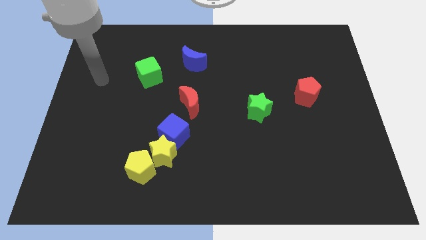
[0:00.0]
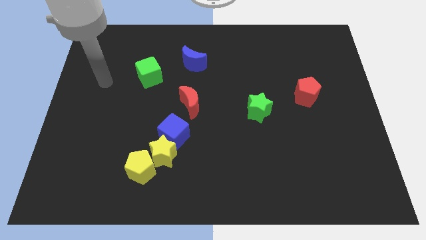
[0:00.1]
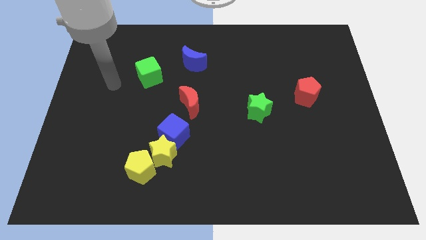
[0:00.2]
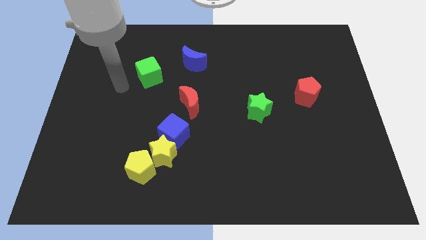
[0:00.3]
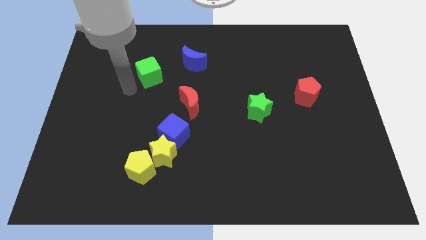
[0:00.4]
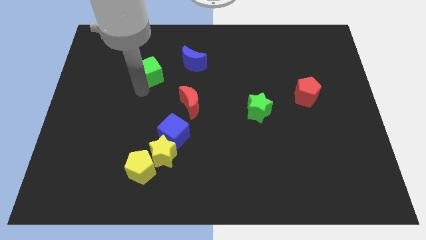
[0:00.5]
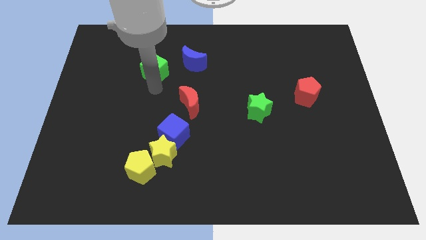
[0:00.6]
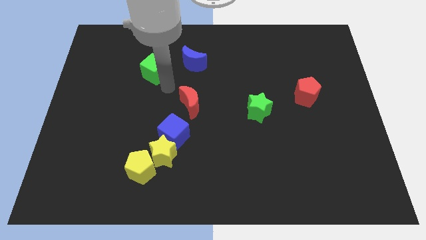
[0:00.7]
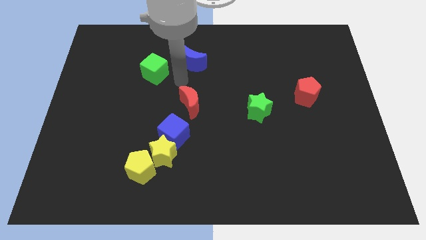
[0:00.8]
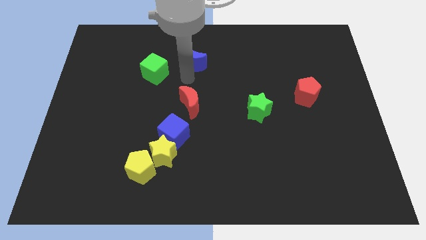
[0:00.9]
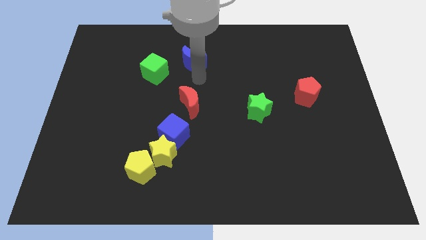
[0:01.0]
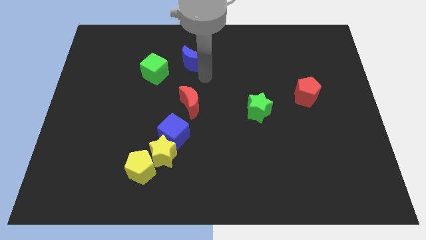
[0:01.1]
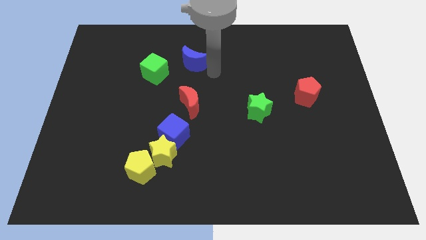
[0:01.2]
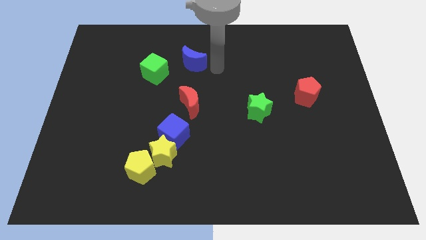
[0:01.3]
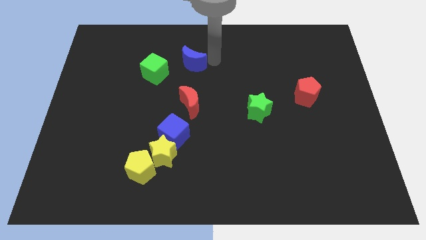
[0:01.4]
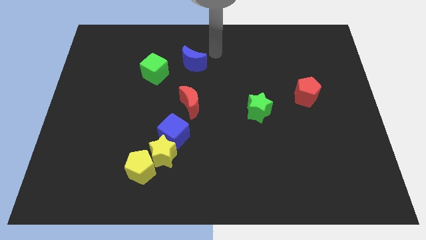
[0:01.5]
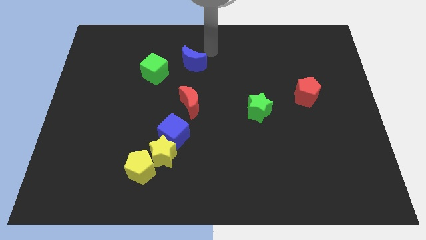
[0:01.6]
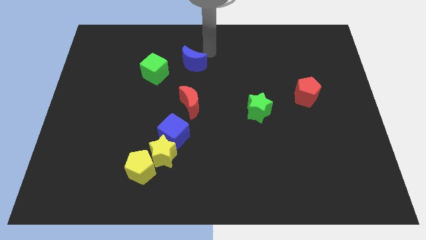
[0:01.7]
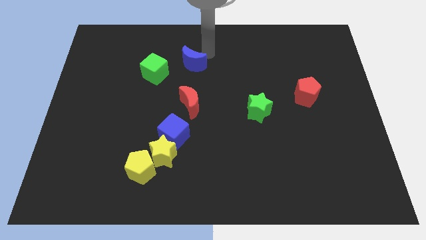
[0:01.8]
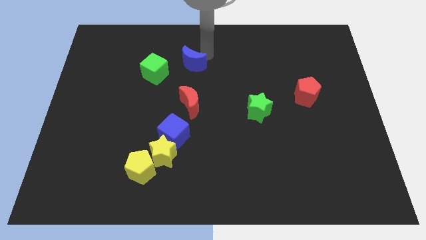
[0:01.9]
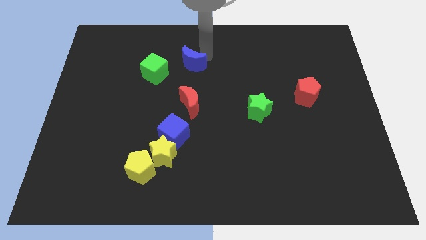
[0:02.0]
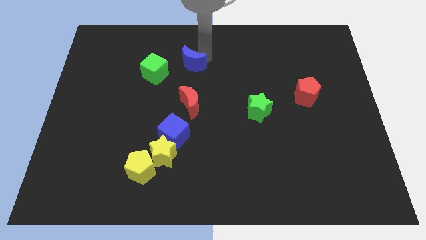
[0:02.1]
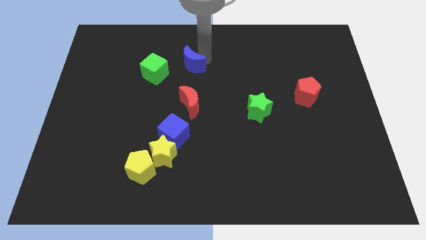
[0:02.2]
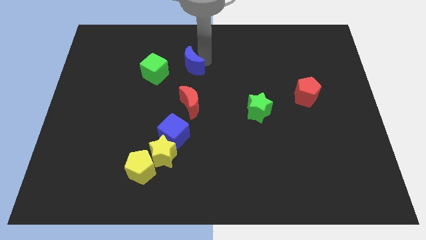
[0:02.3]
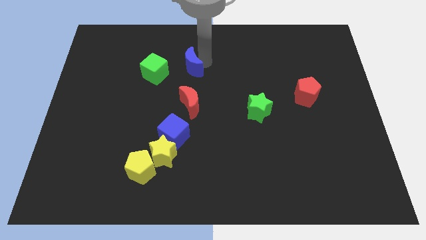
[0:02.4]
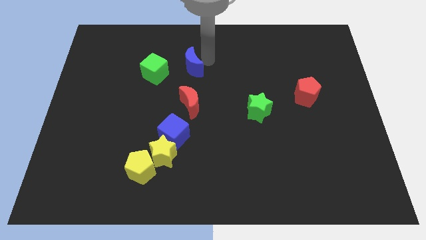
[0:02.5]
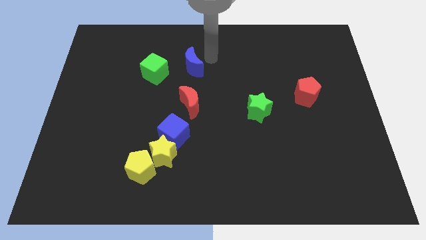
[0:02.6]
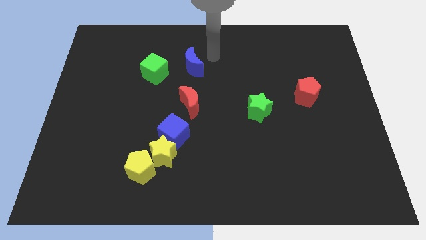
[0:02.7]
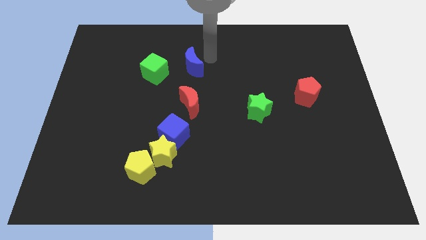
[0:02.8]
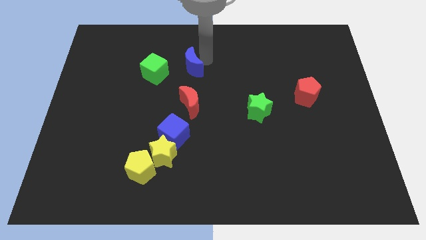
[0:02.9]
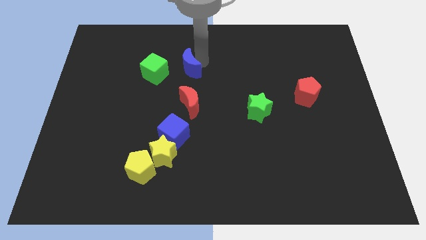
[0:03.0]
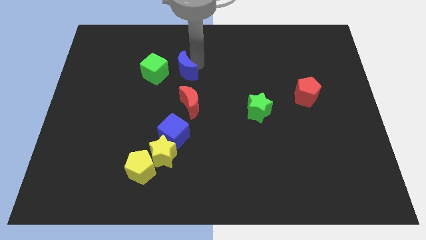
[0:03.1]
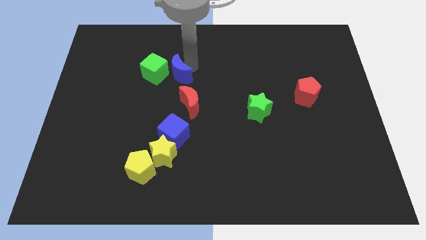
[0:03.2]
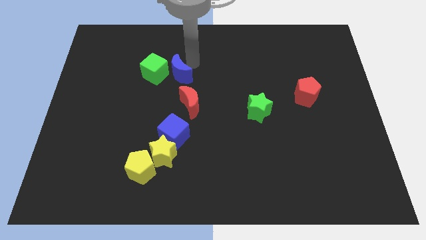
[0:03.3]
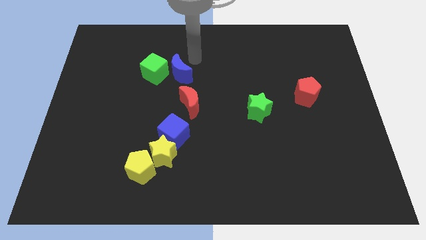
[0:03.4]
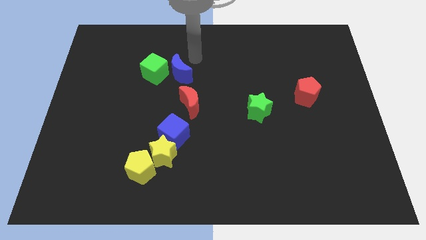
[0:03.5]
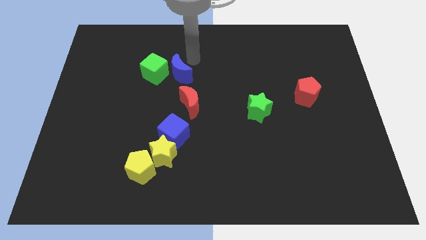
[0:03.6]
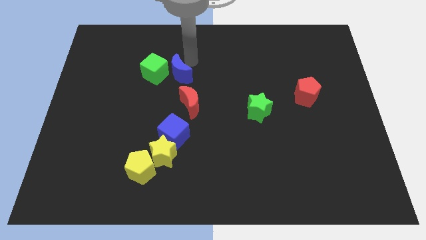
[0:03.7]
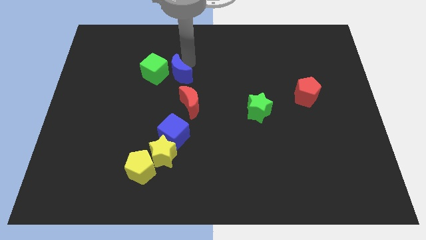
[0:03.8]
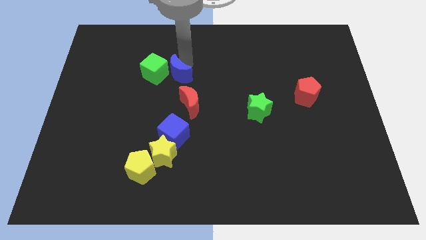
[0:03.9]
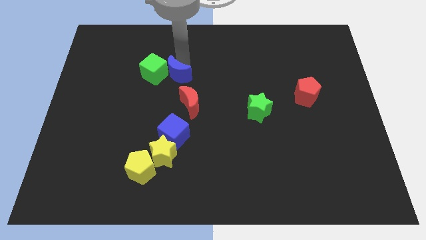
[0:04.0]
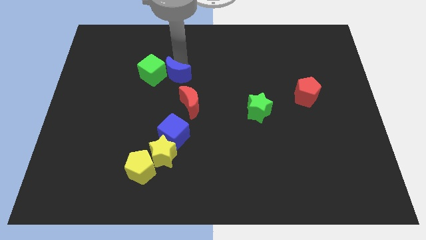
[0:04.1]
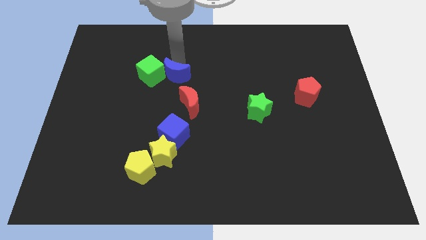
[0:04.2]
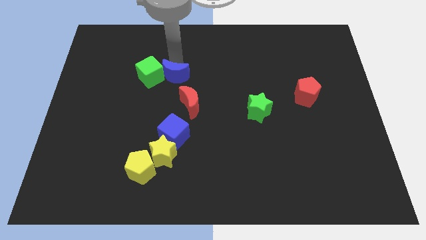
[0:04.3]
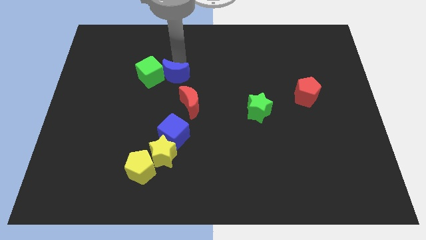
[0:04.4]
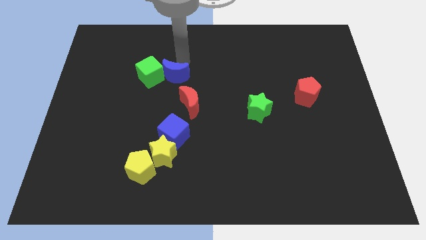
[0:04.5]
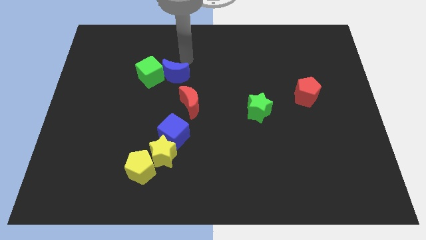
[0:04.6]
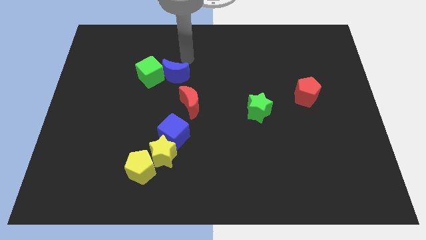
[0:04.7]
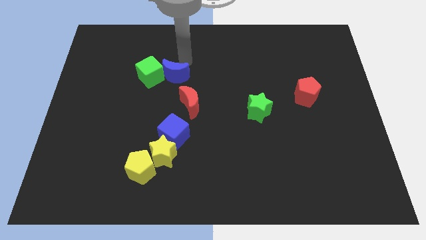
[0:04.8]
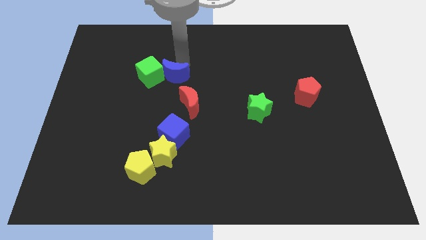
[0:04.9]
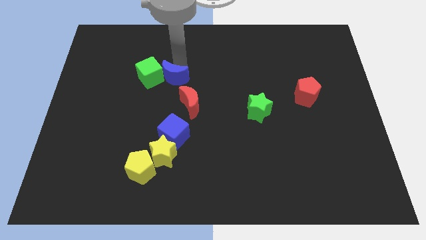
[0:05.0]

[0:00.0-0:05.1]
move the blue moon diagonally downwards and left slightly

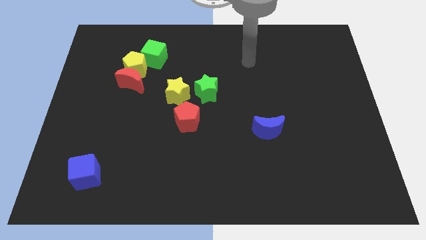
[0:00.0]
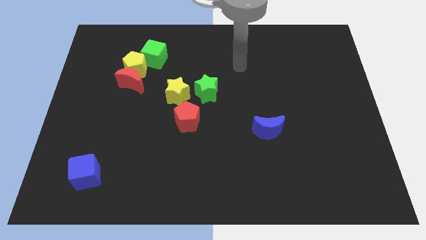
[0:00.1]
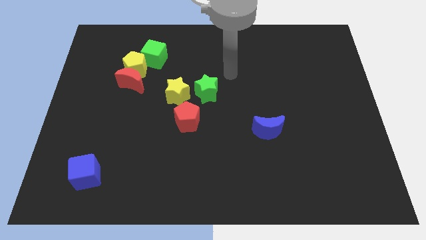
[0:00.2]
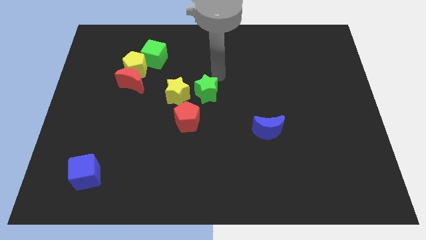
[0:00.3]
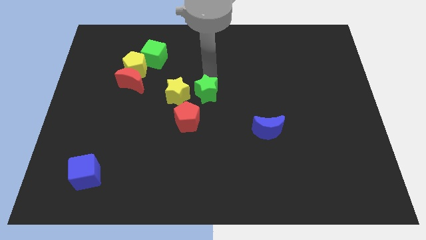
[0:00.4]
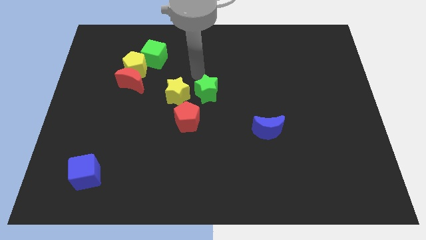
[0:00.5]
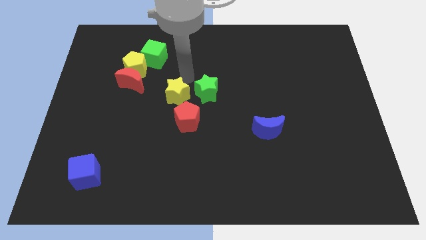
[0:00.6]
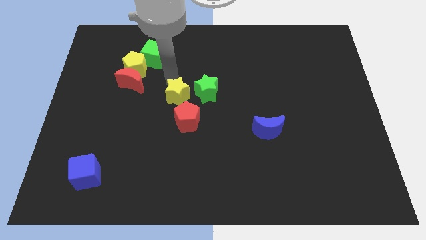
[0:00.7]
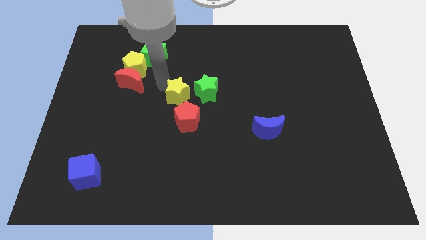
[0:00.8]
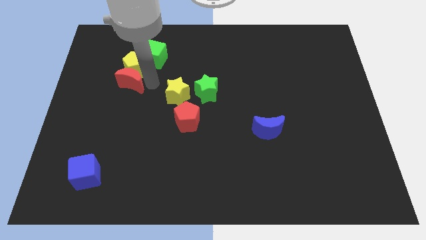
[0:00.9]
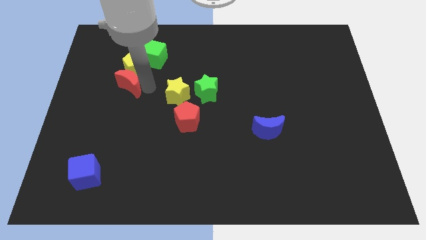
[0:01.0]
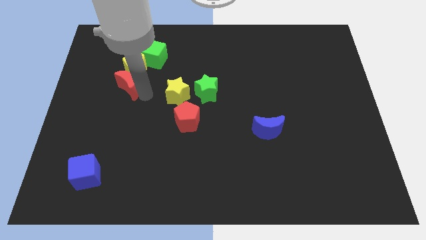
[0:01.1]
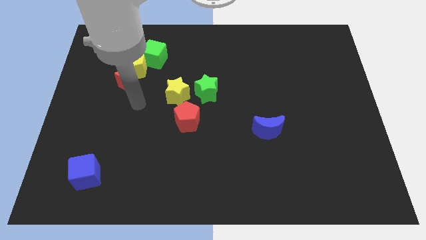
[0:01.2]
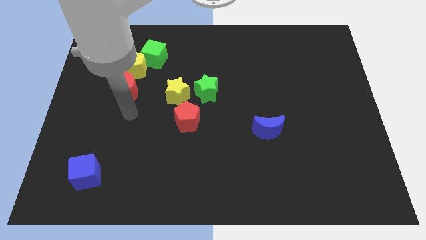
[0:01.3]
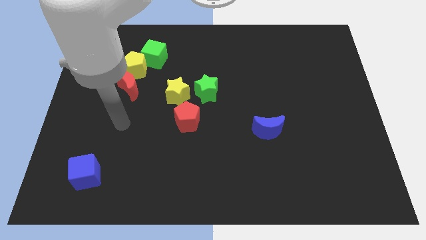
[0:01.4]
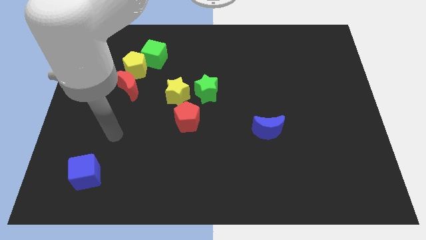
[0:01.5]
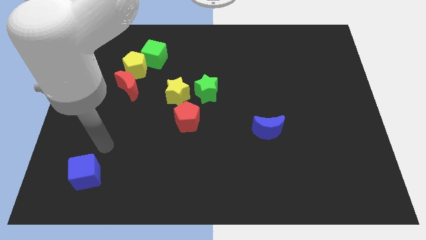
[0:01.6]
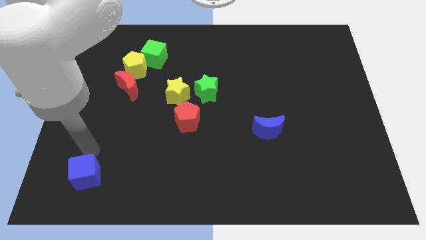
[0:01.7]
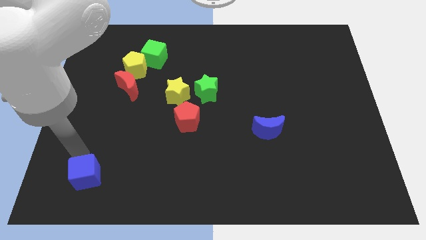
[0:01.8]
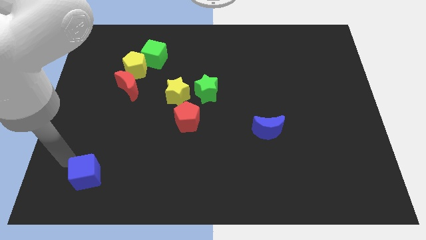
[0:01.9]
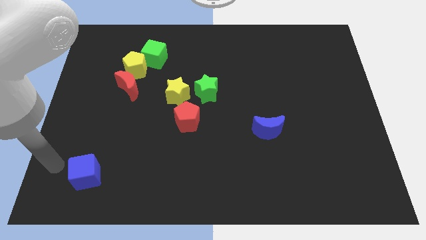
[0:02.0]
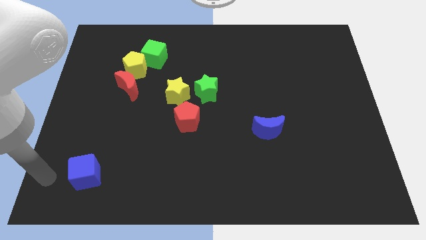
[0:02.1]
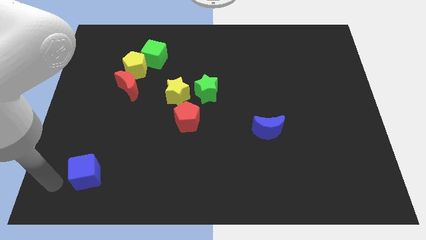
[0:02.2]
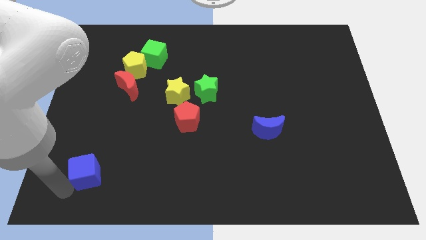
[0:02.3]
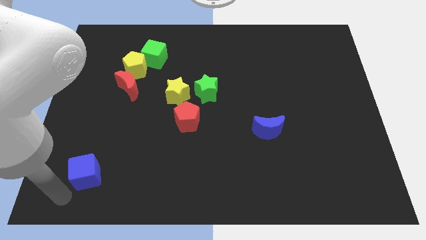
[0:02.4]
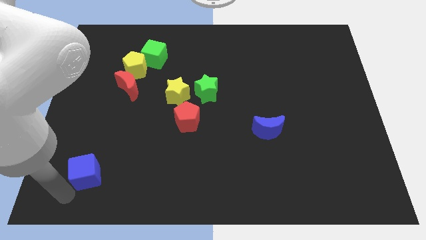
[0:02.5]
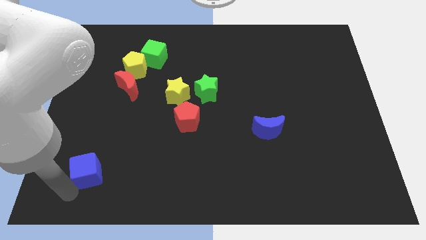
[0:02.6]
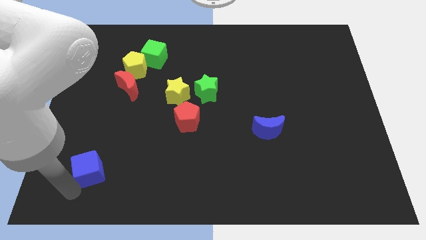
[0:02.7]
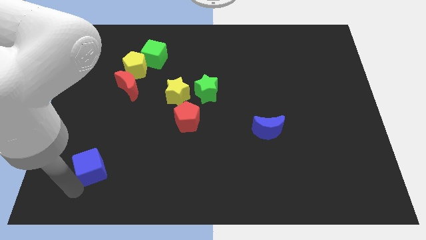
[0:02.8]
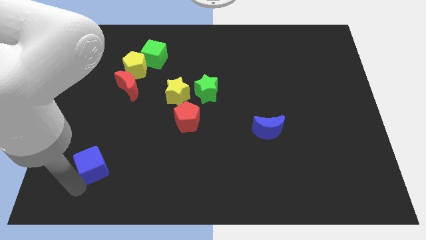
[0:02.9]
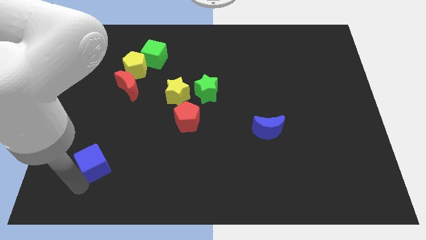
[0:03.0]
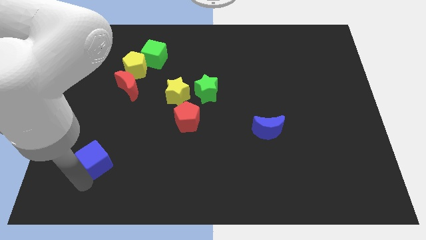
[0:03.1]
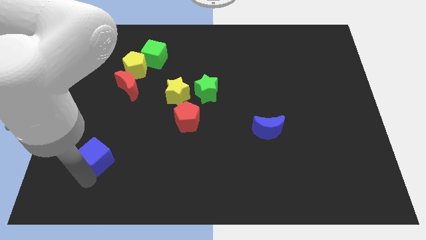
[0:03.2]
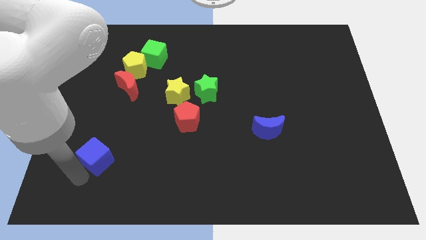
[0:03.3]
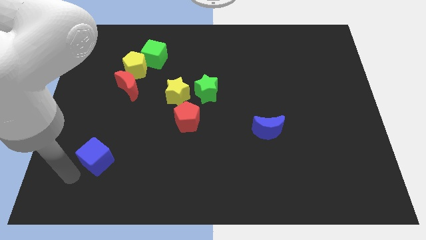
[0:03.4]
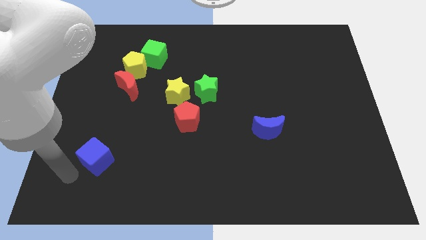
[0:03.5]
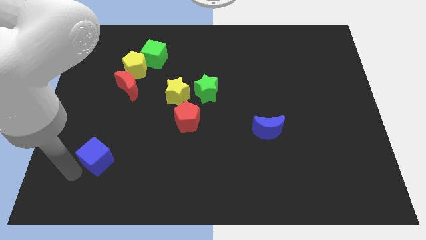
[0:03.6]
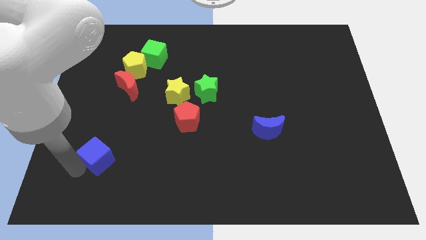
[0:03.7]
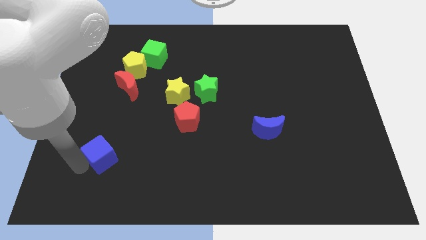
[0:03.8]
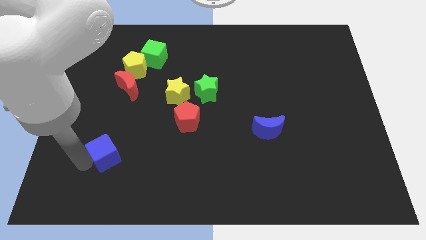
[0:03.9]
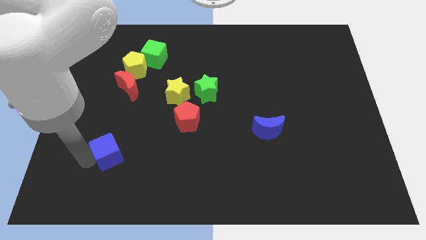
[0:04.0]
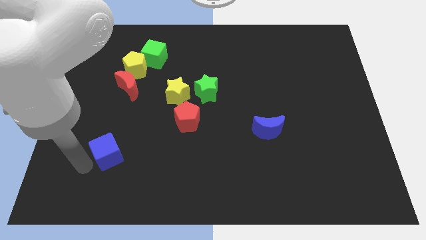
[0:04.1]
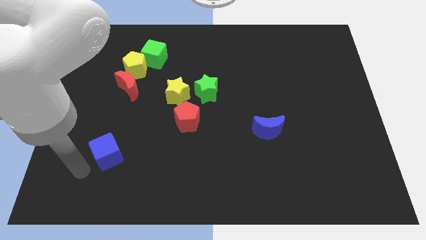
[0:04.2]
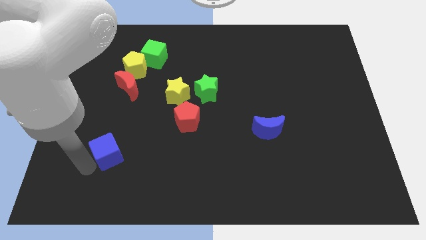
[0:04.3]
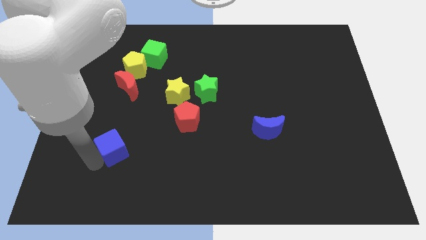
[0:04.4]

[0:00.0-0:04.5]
slightly slide the blue cube upwards and to the right diagonally
